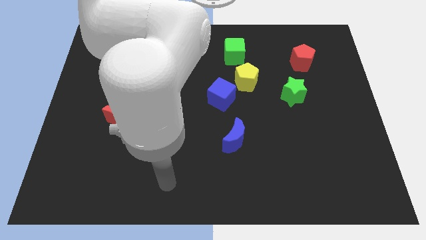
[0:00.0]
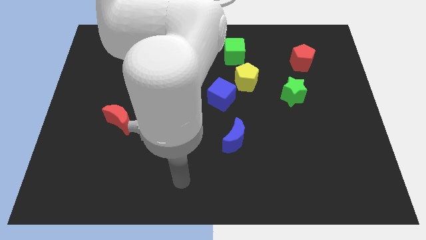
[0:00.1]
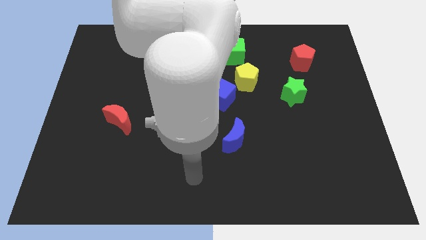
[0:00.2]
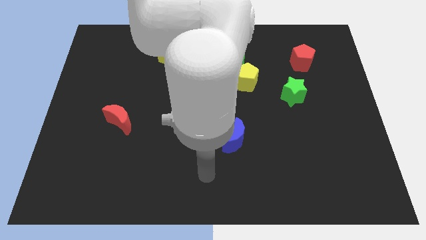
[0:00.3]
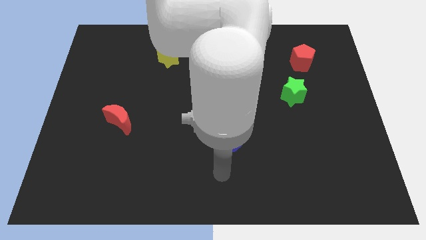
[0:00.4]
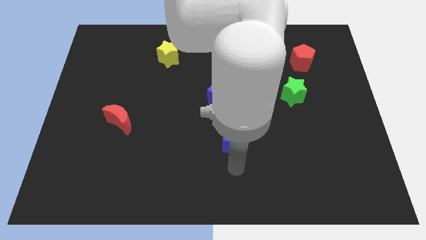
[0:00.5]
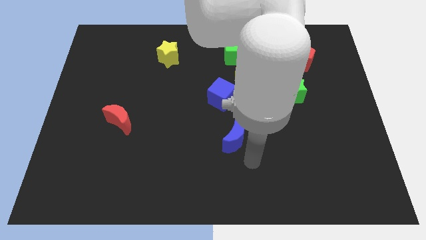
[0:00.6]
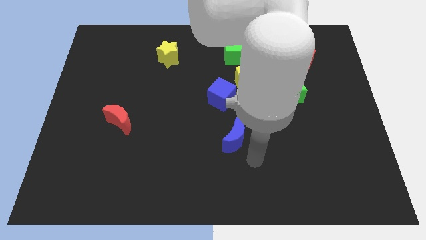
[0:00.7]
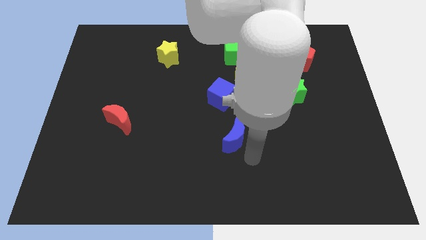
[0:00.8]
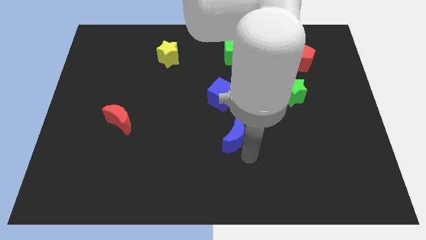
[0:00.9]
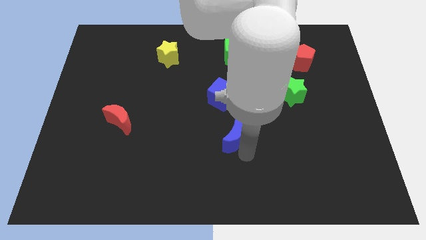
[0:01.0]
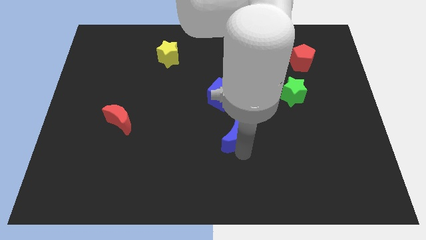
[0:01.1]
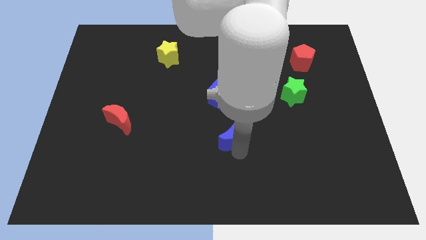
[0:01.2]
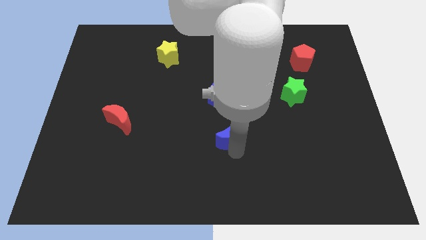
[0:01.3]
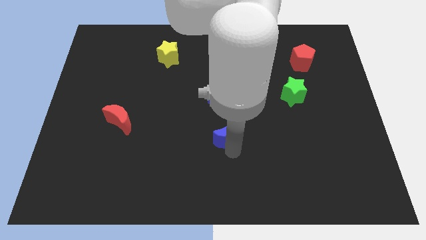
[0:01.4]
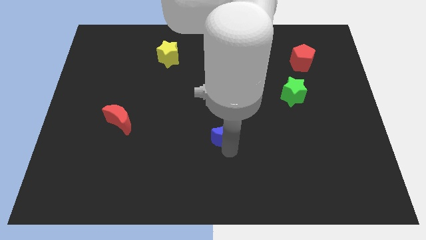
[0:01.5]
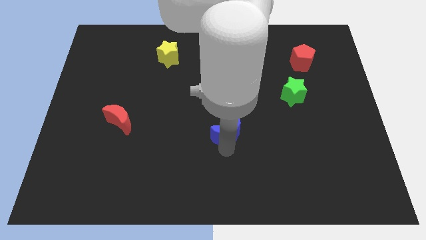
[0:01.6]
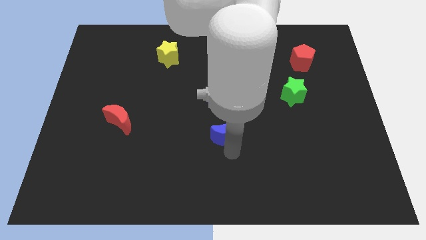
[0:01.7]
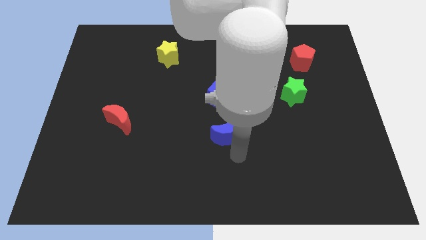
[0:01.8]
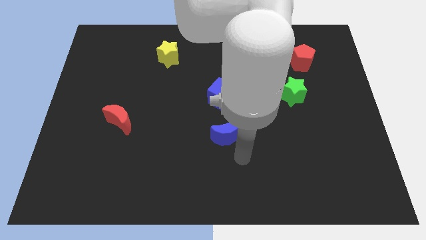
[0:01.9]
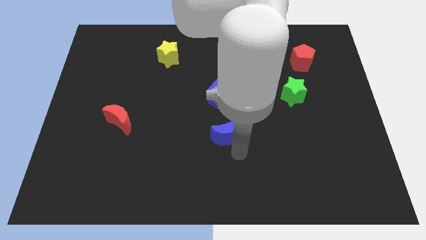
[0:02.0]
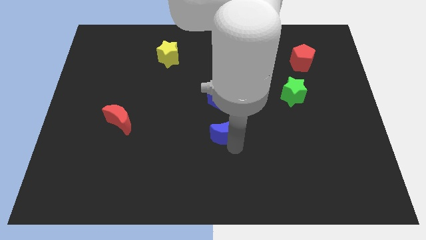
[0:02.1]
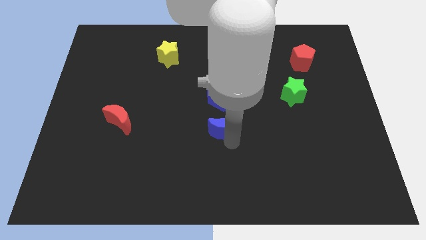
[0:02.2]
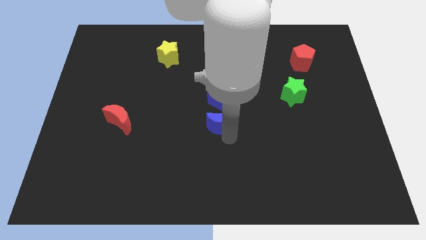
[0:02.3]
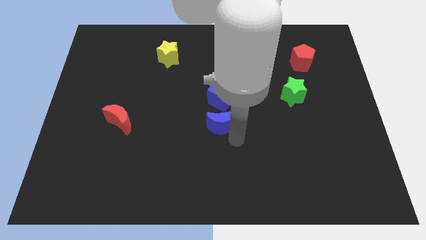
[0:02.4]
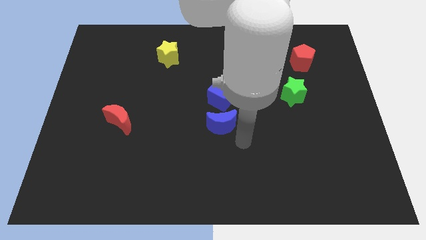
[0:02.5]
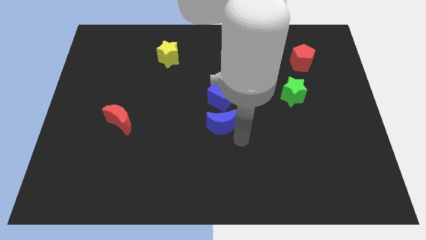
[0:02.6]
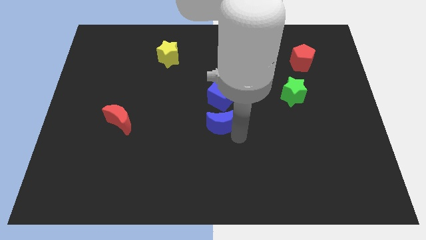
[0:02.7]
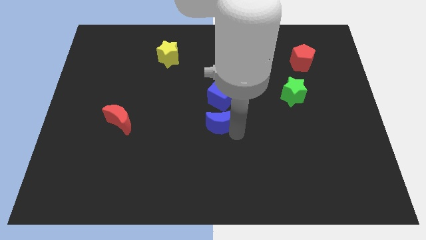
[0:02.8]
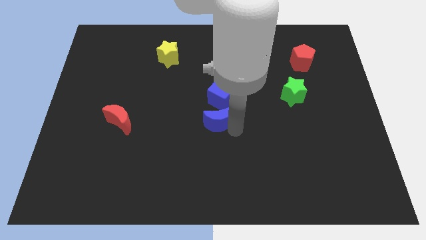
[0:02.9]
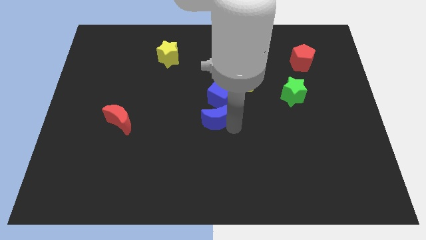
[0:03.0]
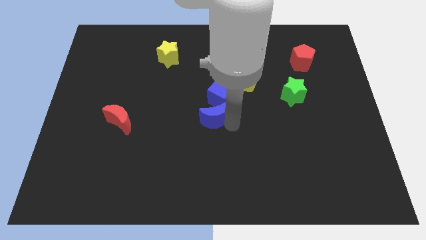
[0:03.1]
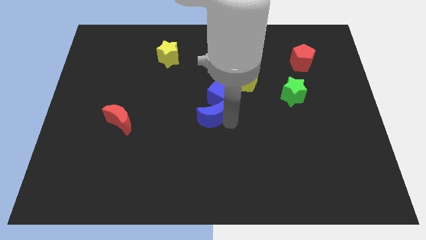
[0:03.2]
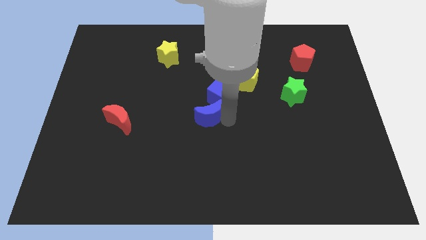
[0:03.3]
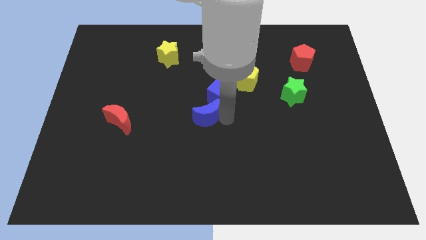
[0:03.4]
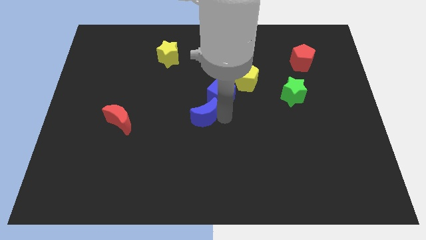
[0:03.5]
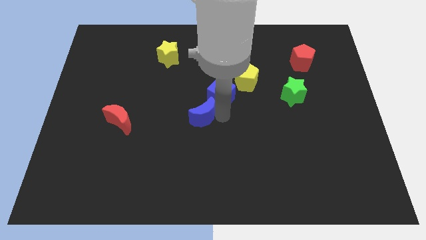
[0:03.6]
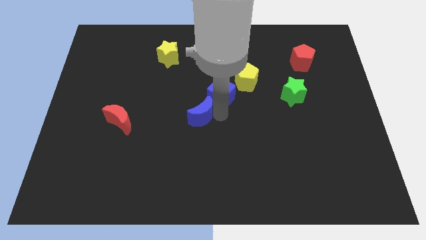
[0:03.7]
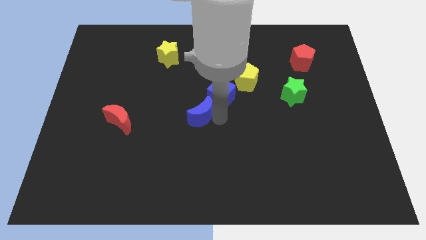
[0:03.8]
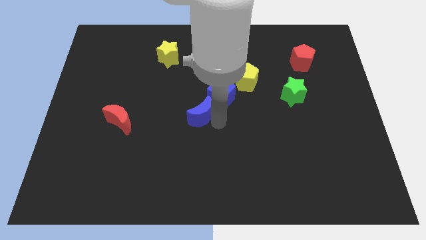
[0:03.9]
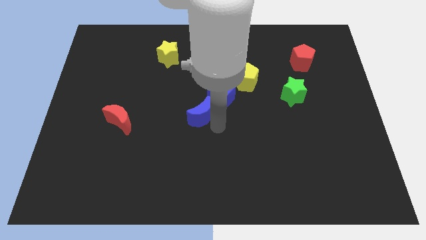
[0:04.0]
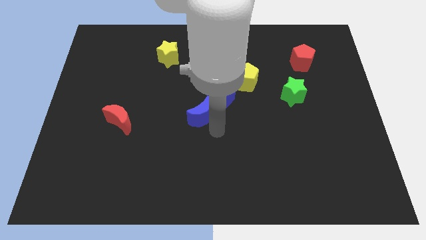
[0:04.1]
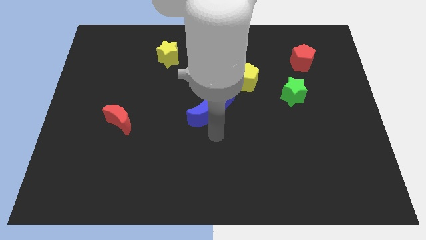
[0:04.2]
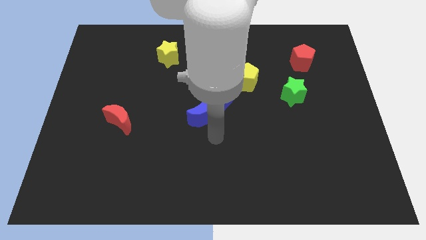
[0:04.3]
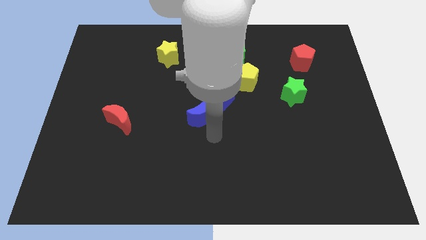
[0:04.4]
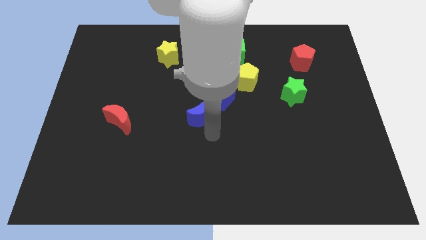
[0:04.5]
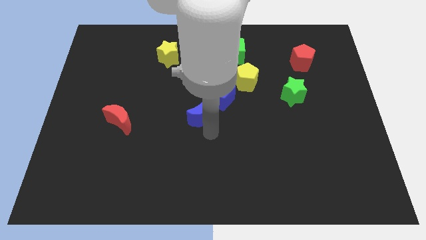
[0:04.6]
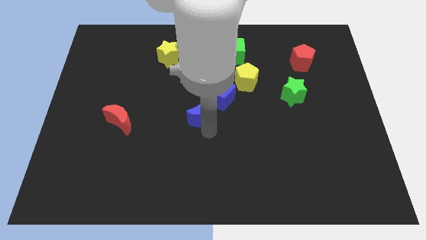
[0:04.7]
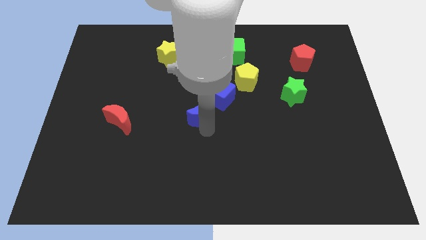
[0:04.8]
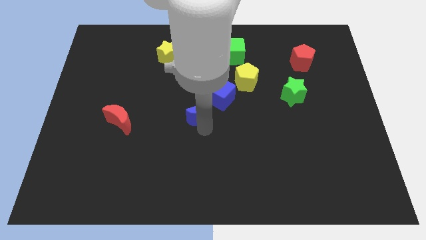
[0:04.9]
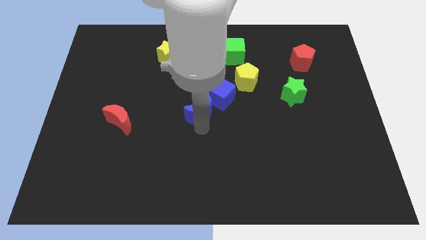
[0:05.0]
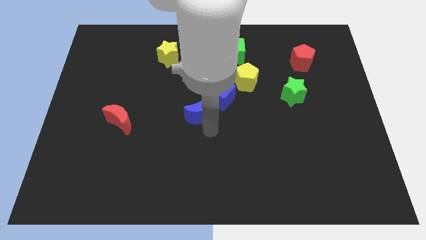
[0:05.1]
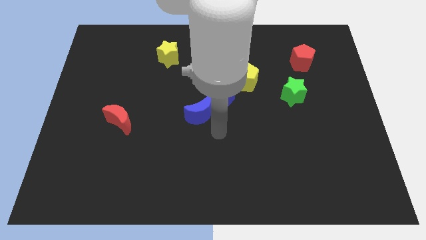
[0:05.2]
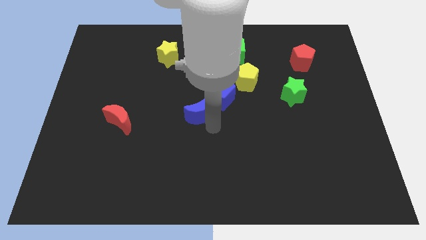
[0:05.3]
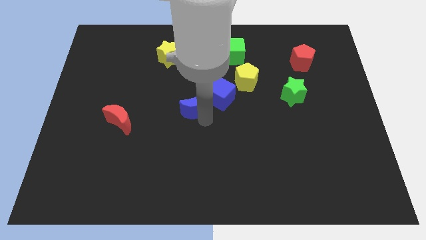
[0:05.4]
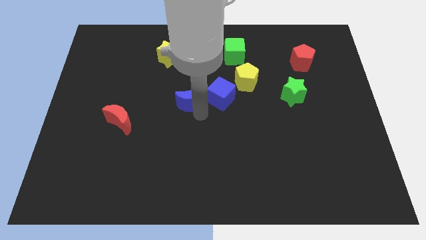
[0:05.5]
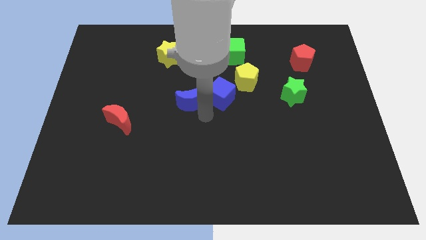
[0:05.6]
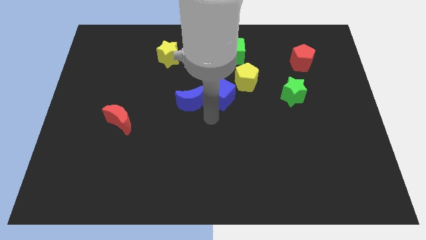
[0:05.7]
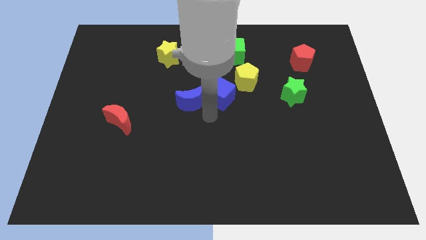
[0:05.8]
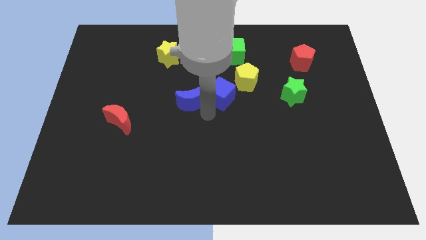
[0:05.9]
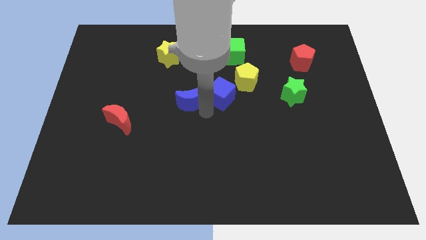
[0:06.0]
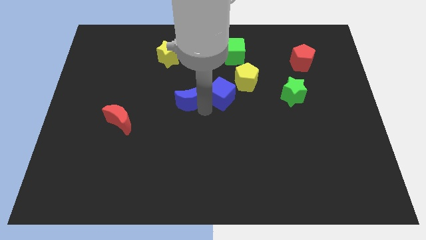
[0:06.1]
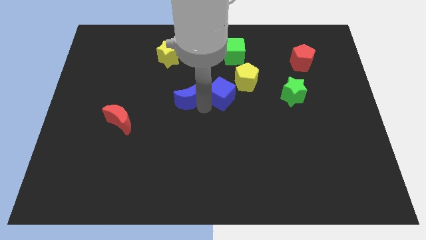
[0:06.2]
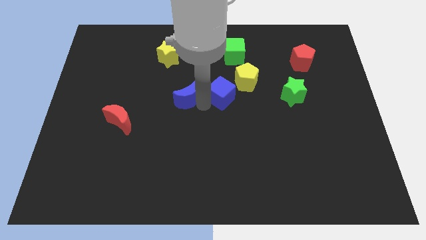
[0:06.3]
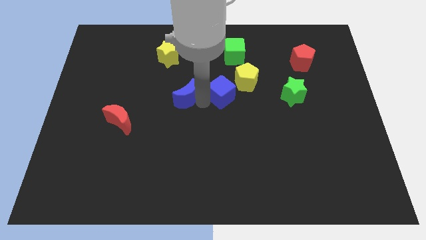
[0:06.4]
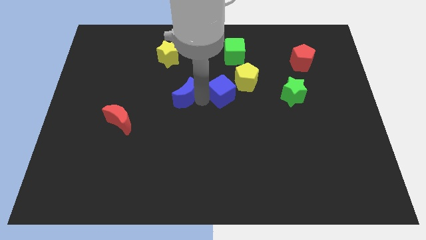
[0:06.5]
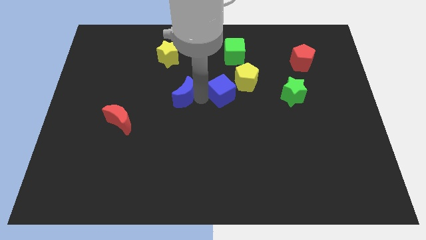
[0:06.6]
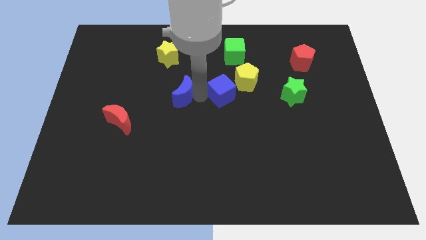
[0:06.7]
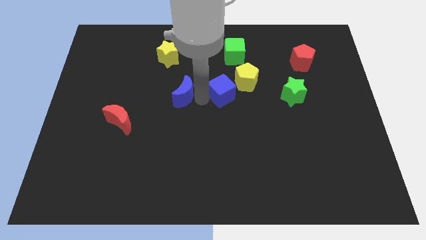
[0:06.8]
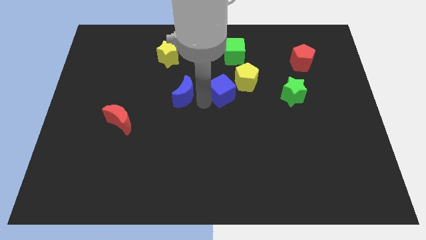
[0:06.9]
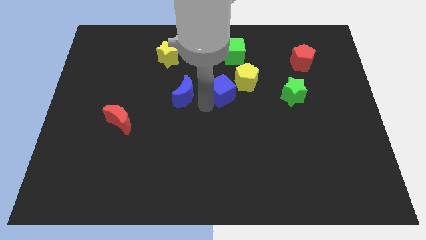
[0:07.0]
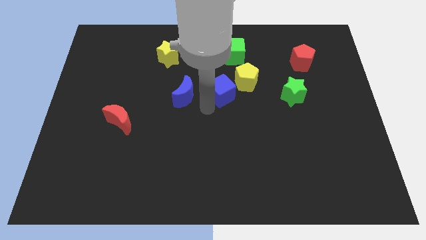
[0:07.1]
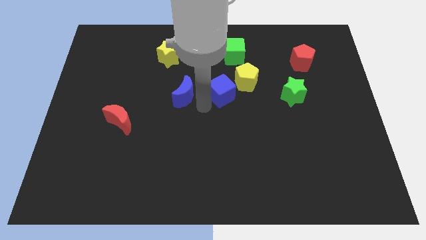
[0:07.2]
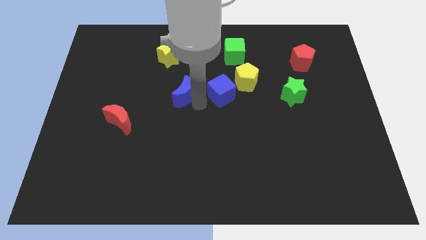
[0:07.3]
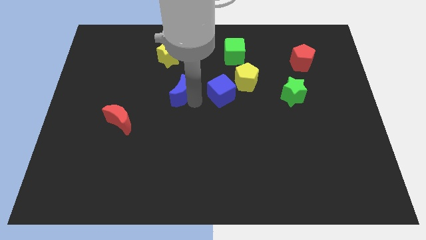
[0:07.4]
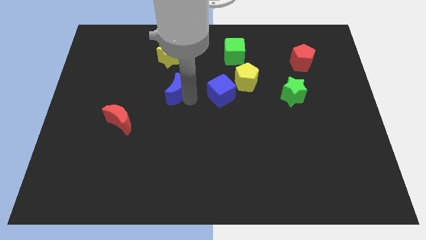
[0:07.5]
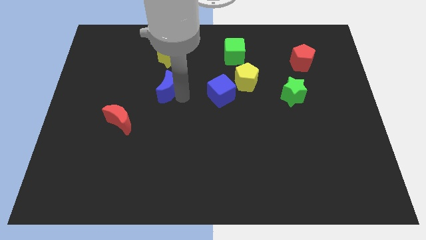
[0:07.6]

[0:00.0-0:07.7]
slide the blue moon upwards and left diagonally

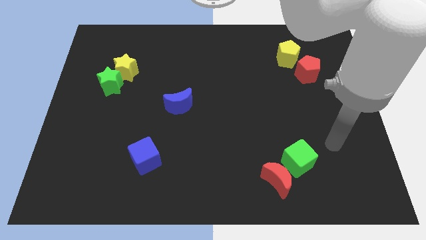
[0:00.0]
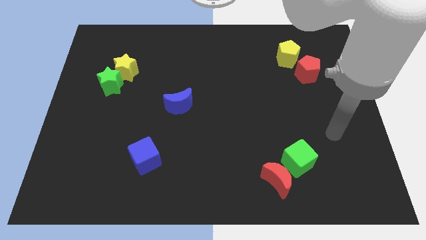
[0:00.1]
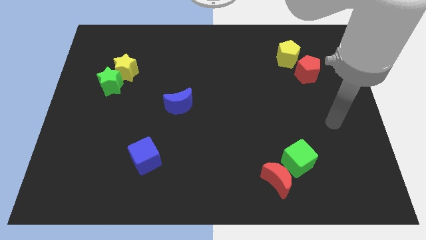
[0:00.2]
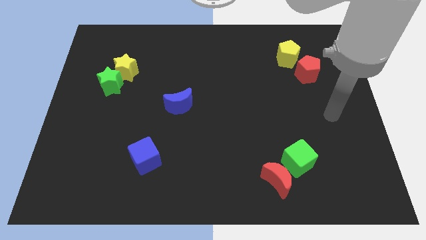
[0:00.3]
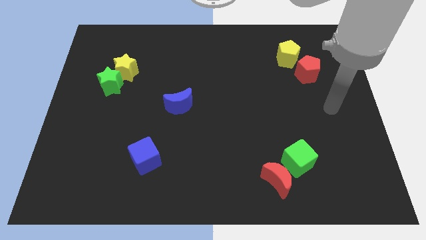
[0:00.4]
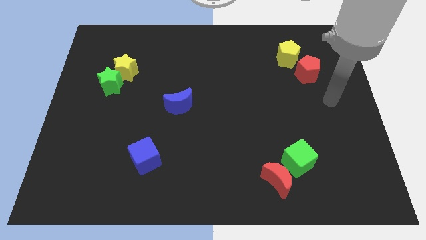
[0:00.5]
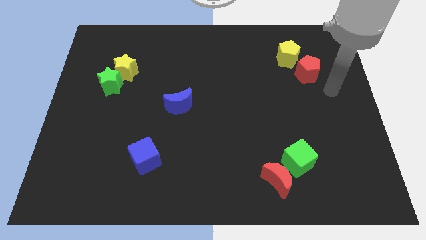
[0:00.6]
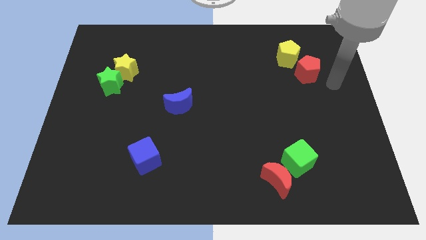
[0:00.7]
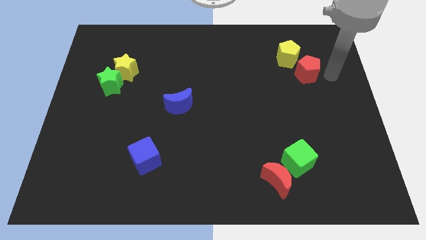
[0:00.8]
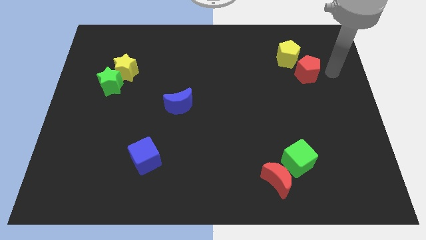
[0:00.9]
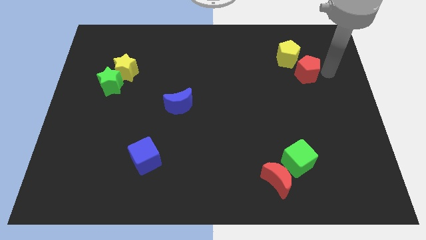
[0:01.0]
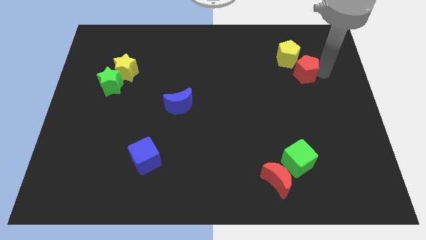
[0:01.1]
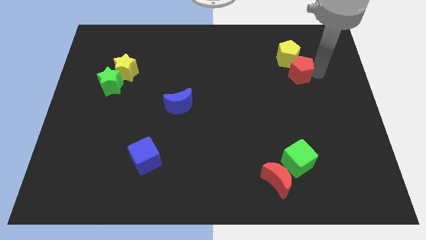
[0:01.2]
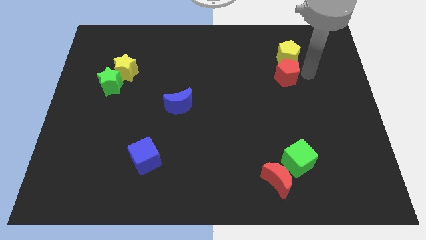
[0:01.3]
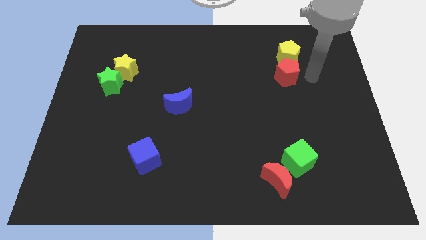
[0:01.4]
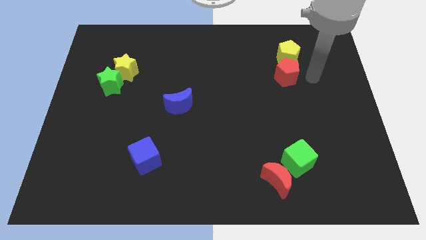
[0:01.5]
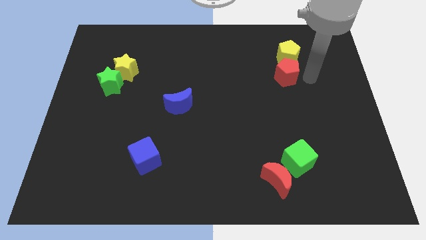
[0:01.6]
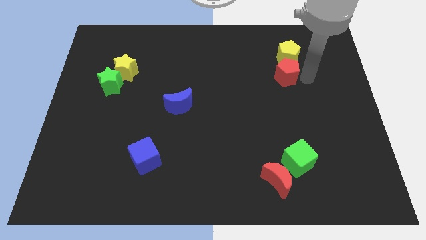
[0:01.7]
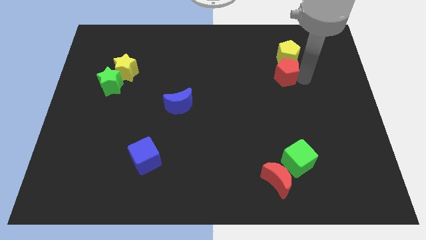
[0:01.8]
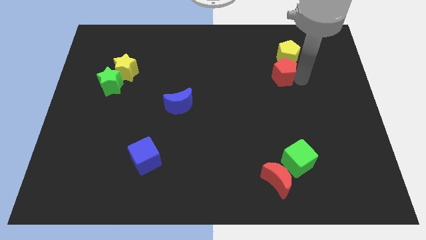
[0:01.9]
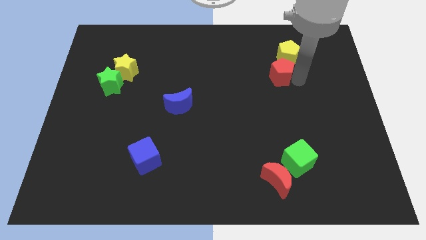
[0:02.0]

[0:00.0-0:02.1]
move the red pentagon a bit to the left
